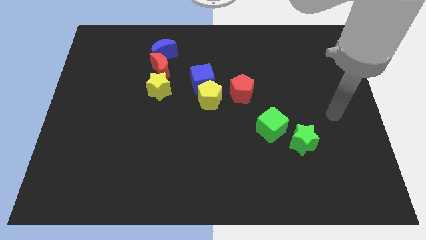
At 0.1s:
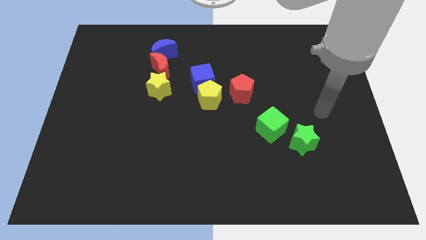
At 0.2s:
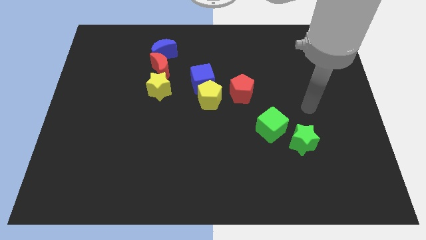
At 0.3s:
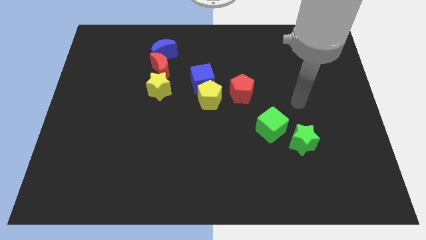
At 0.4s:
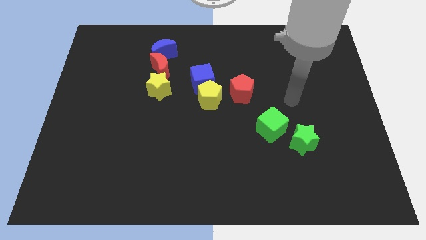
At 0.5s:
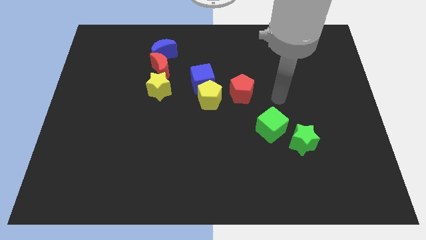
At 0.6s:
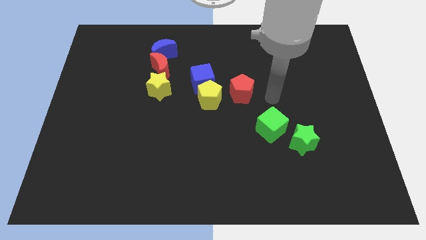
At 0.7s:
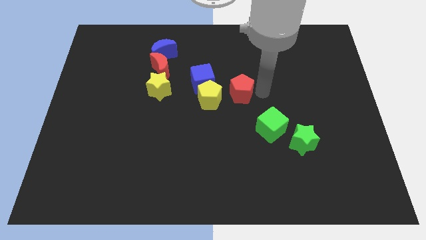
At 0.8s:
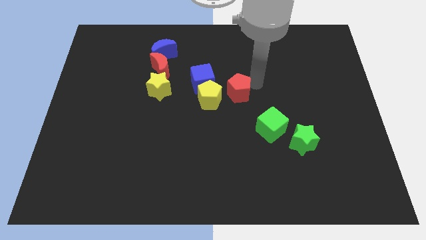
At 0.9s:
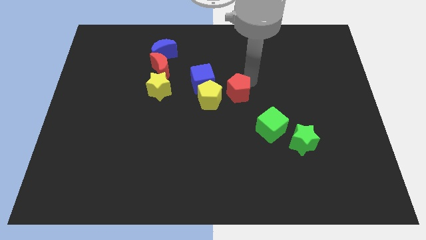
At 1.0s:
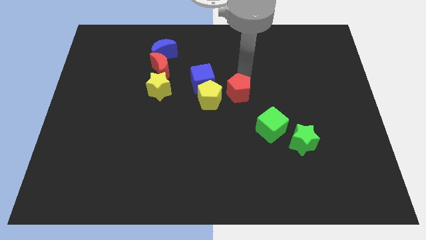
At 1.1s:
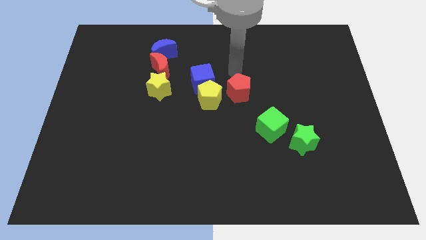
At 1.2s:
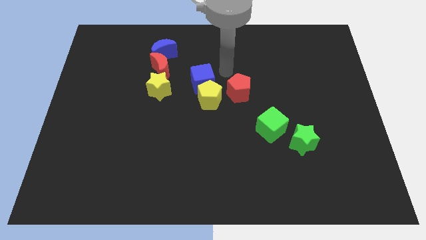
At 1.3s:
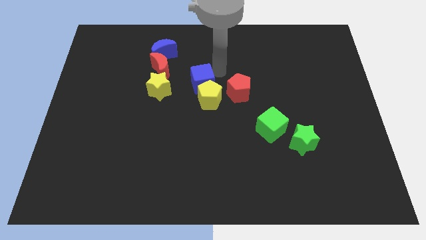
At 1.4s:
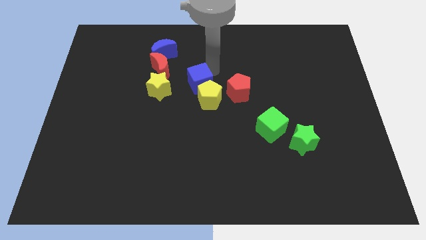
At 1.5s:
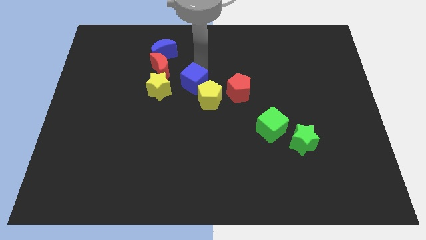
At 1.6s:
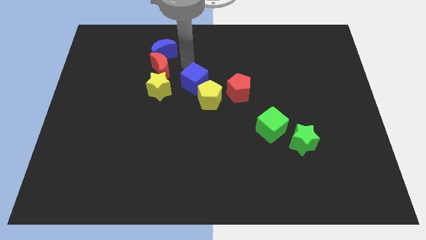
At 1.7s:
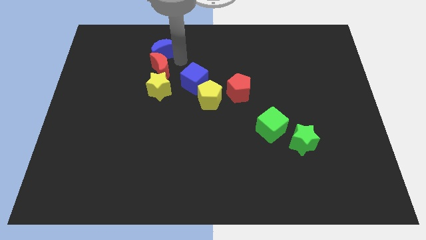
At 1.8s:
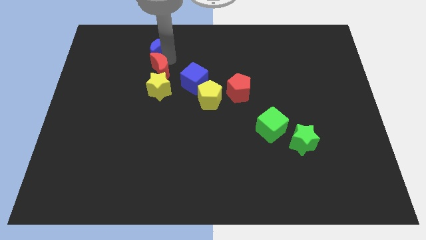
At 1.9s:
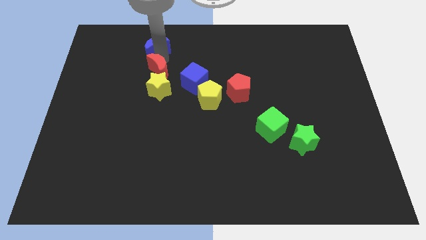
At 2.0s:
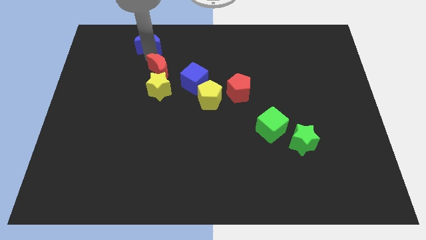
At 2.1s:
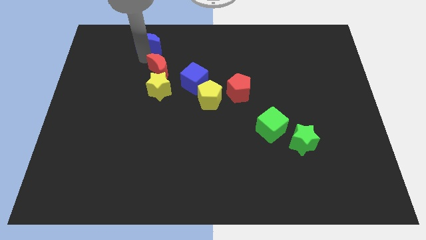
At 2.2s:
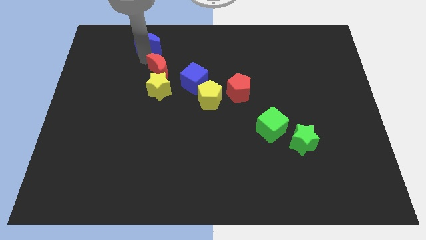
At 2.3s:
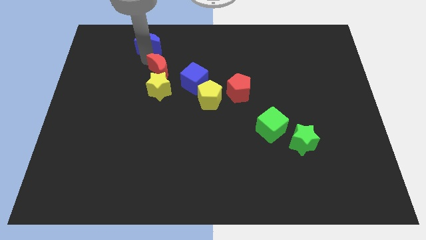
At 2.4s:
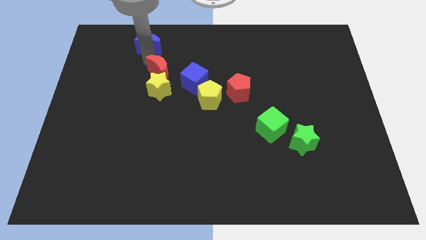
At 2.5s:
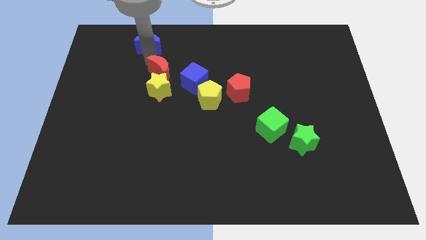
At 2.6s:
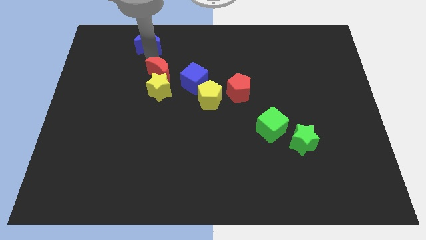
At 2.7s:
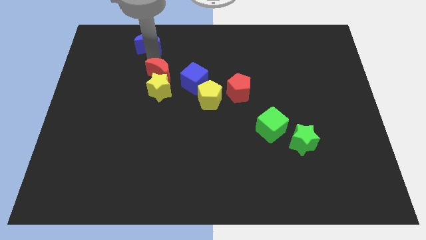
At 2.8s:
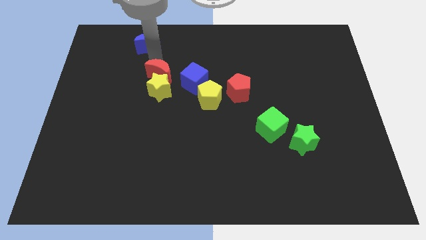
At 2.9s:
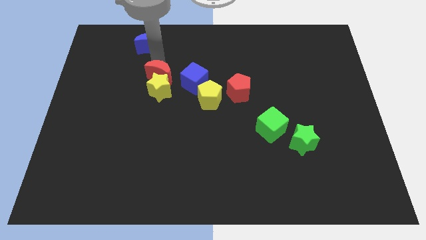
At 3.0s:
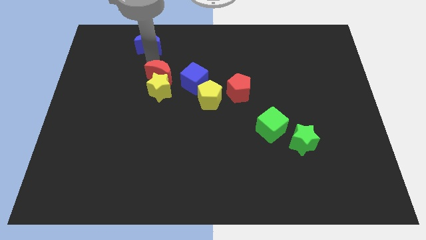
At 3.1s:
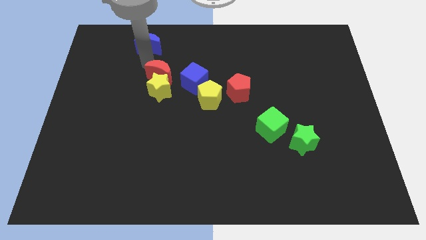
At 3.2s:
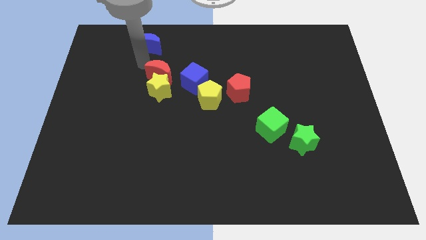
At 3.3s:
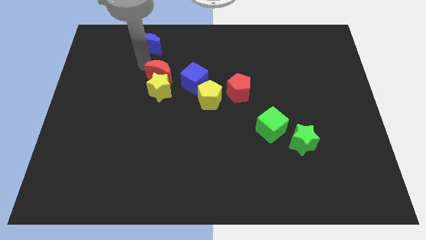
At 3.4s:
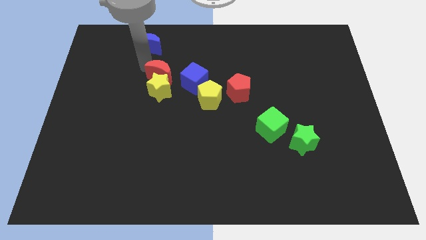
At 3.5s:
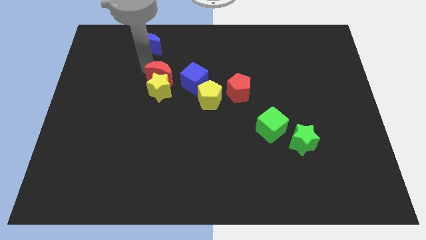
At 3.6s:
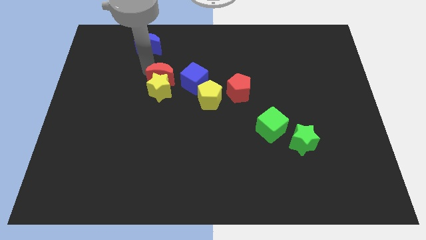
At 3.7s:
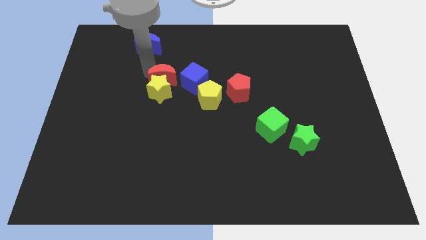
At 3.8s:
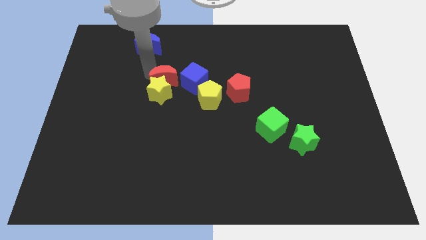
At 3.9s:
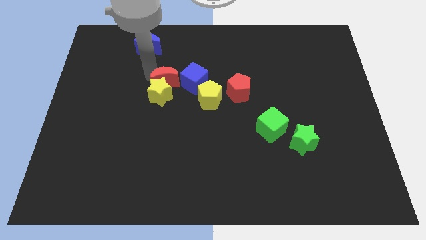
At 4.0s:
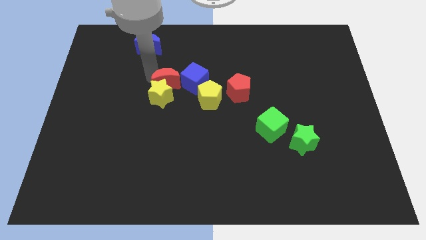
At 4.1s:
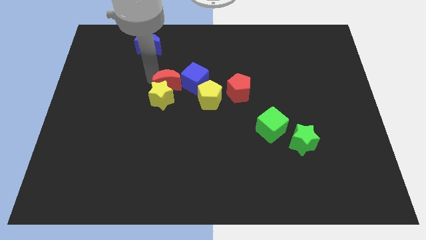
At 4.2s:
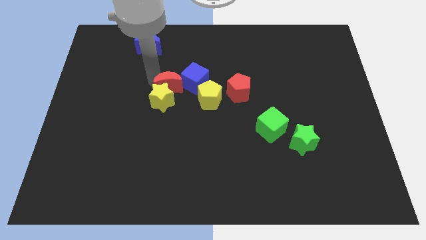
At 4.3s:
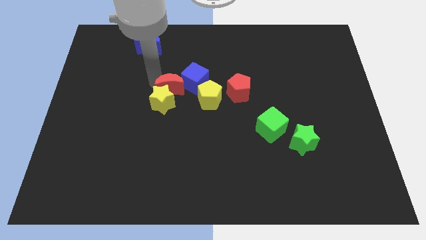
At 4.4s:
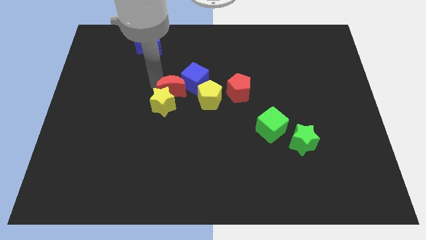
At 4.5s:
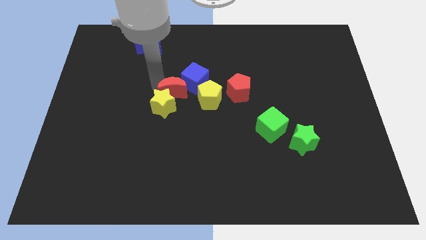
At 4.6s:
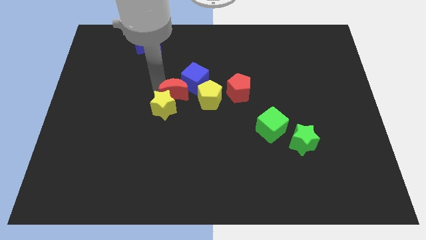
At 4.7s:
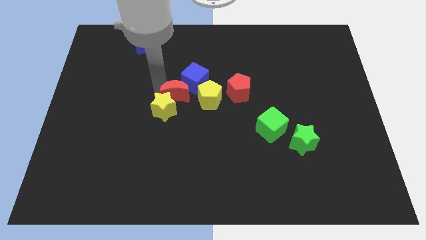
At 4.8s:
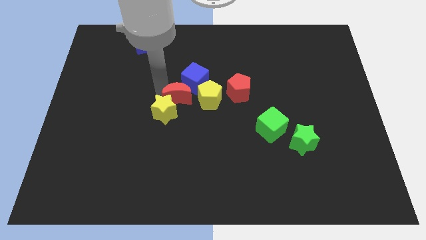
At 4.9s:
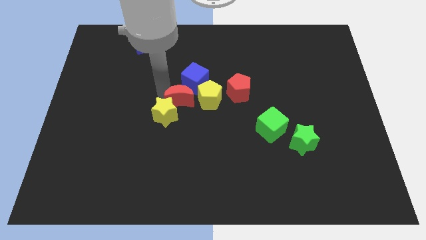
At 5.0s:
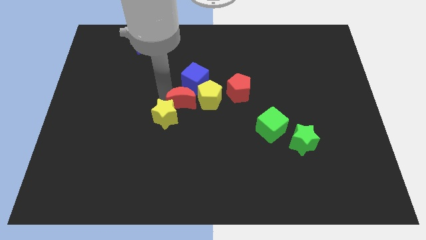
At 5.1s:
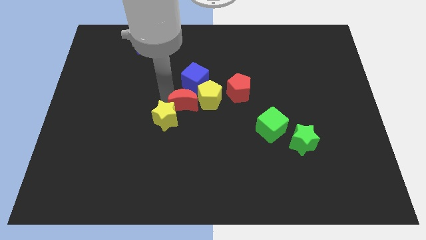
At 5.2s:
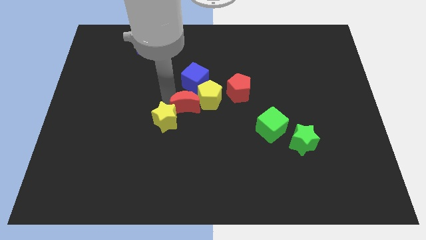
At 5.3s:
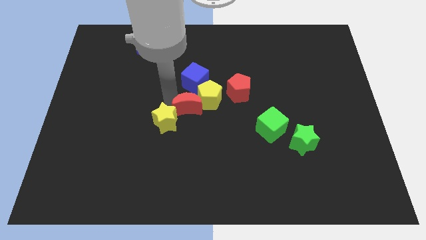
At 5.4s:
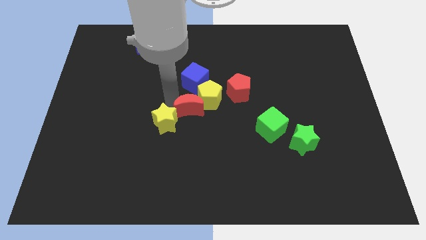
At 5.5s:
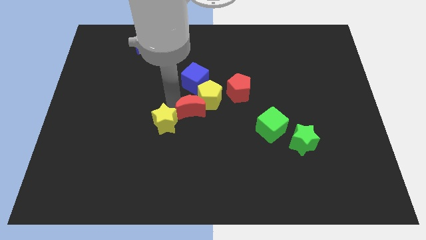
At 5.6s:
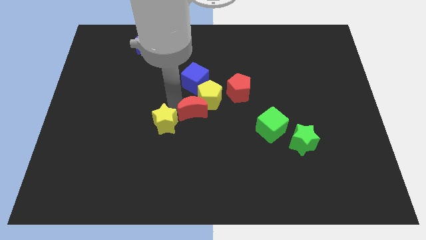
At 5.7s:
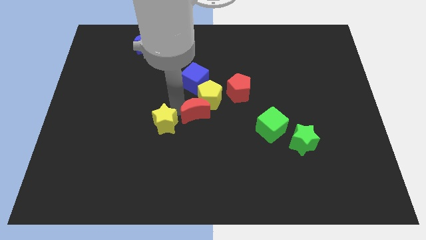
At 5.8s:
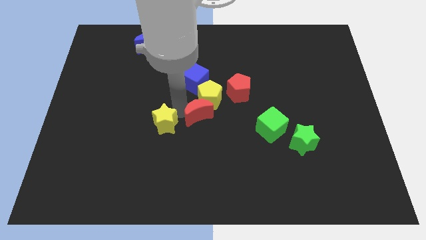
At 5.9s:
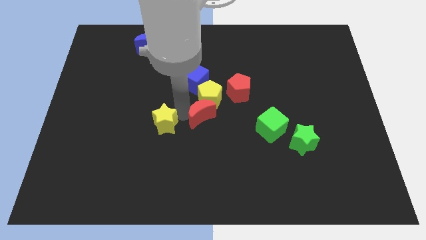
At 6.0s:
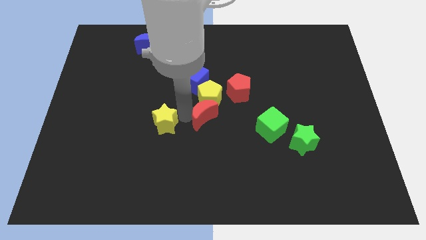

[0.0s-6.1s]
move the red moon diagonally down and to the right of the yellow pentagon
